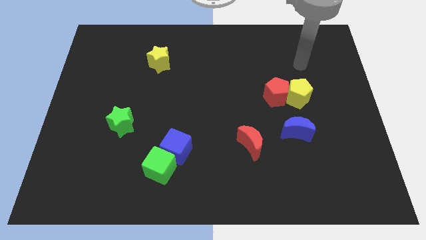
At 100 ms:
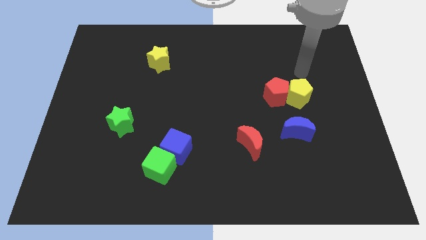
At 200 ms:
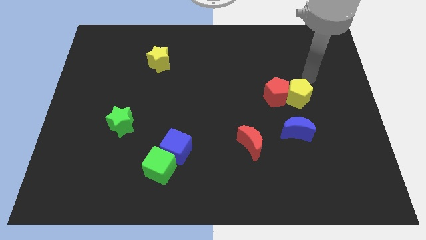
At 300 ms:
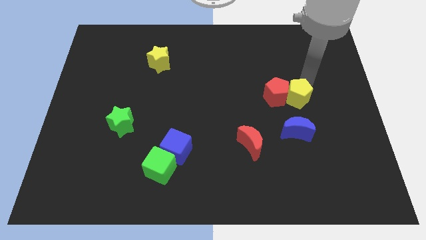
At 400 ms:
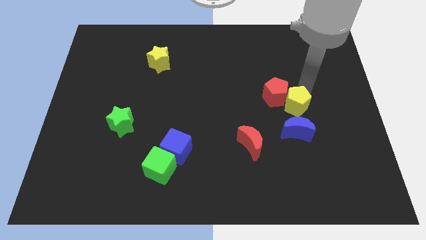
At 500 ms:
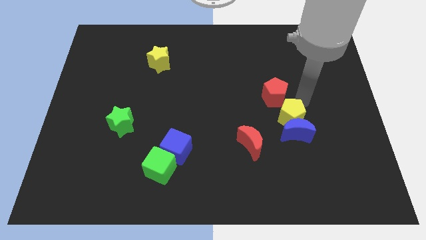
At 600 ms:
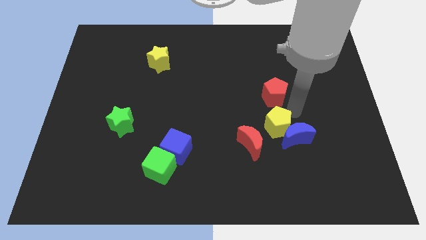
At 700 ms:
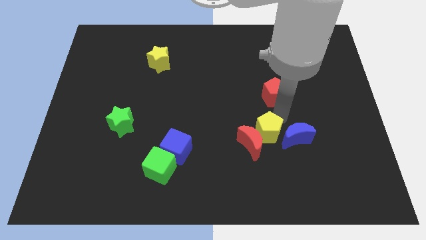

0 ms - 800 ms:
pull the red pentagon apart from the yellow pentagon

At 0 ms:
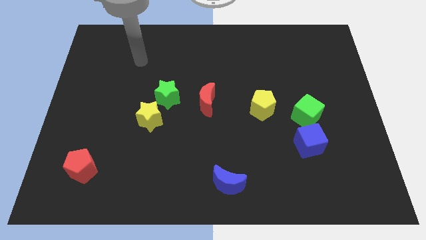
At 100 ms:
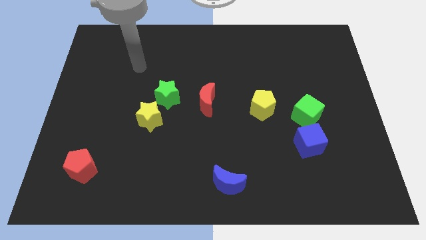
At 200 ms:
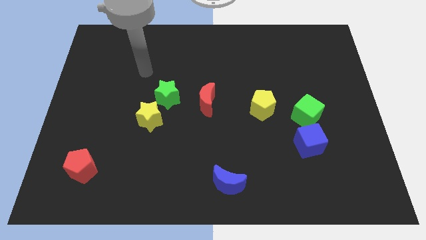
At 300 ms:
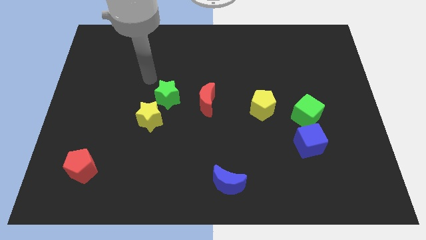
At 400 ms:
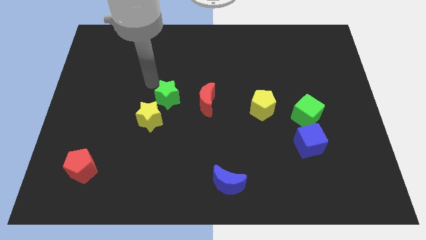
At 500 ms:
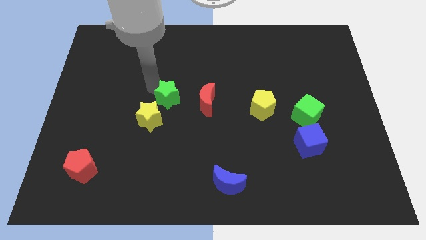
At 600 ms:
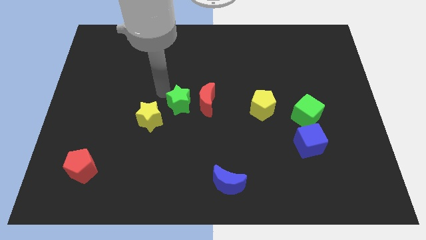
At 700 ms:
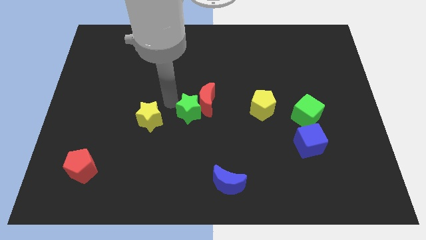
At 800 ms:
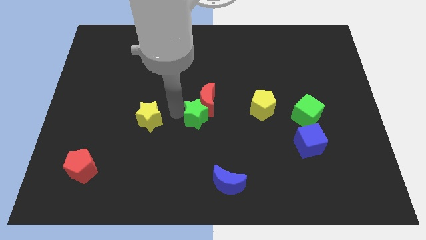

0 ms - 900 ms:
move the yellow star away from the green star

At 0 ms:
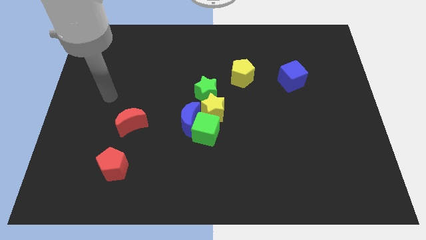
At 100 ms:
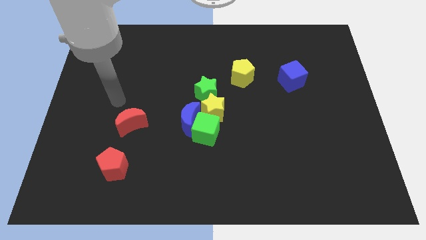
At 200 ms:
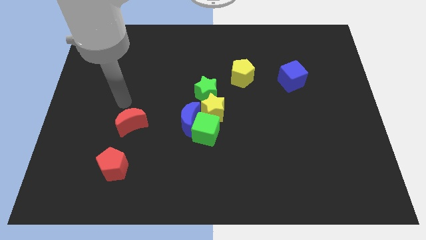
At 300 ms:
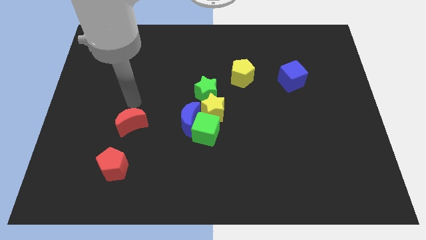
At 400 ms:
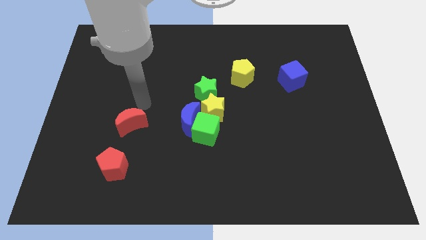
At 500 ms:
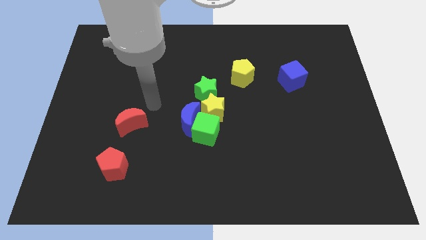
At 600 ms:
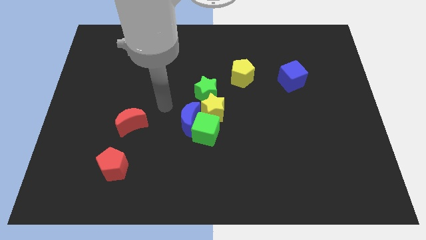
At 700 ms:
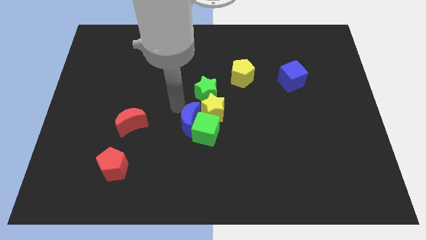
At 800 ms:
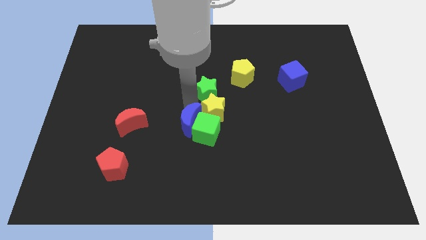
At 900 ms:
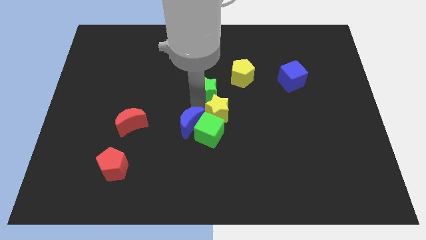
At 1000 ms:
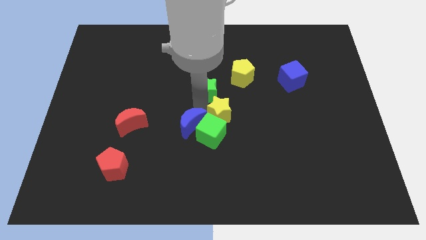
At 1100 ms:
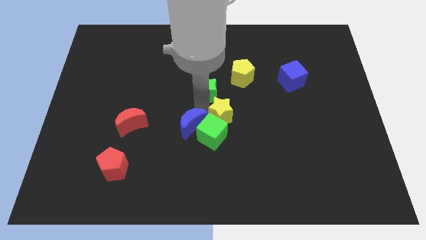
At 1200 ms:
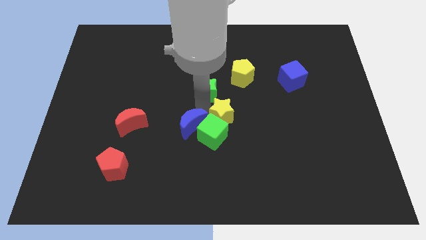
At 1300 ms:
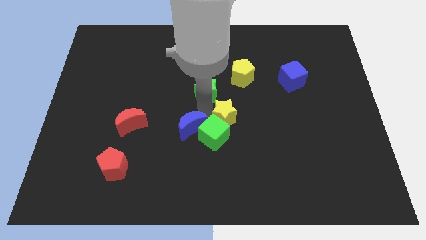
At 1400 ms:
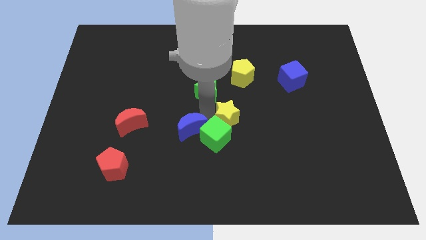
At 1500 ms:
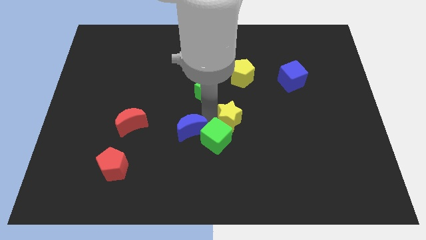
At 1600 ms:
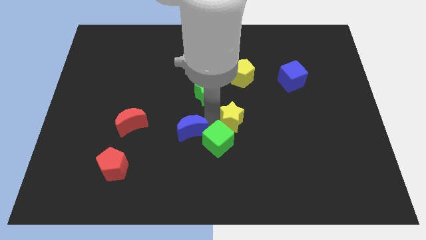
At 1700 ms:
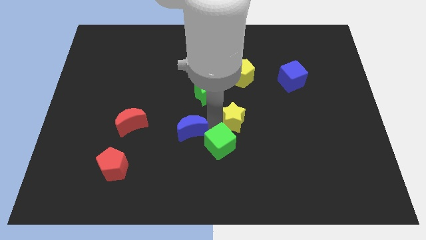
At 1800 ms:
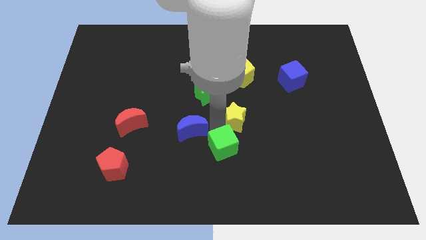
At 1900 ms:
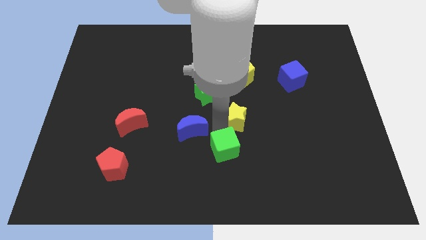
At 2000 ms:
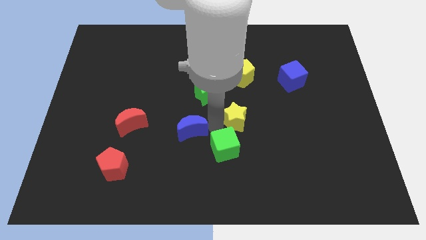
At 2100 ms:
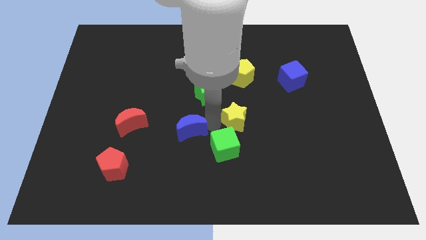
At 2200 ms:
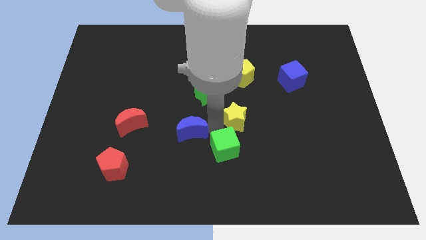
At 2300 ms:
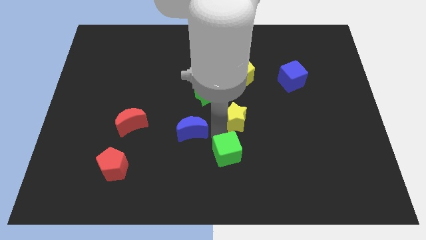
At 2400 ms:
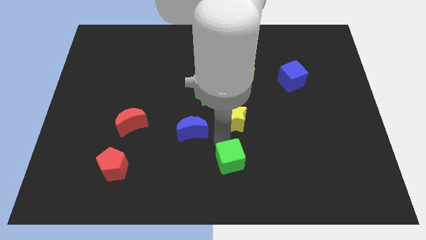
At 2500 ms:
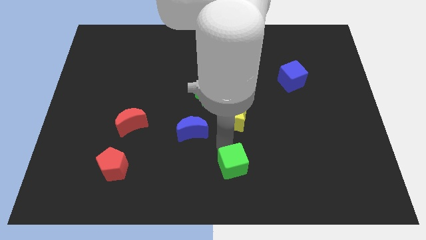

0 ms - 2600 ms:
pull the green cube apart from the blue moon and yellow star

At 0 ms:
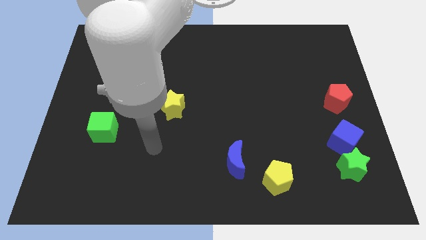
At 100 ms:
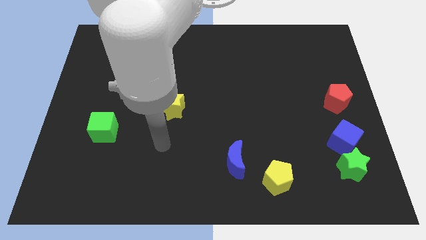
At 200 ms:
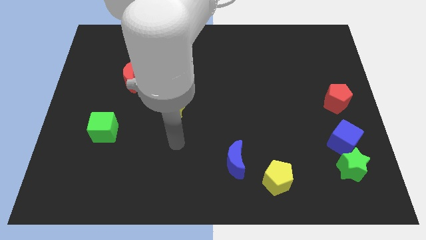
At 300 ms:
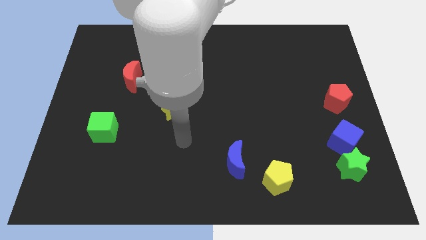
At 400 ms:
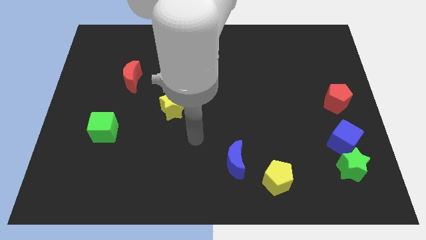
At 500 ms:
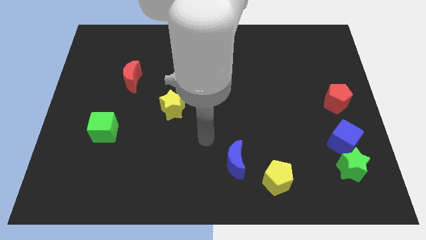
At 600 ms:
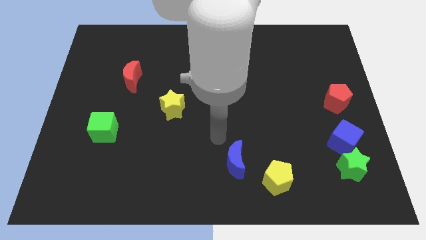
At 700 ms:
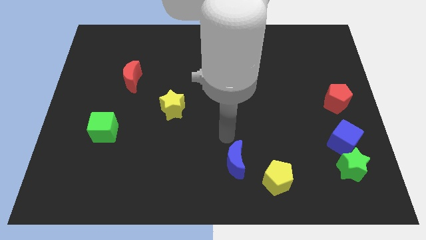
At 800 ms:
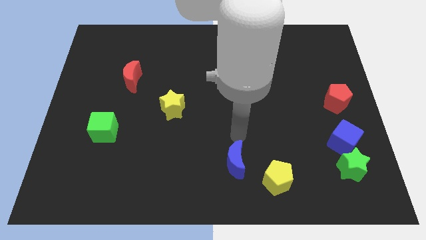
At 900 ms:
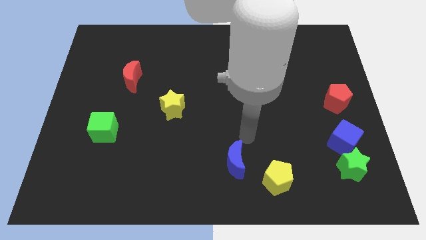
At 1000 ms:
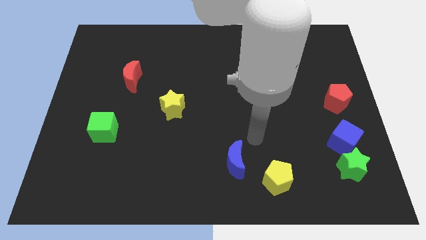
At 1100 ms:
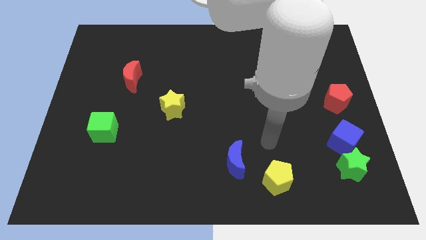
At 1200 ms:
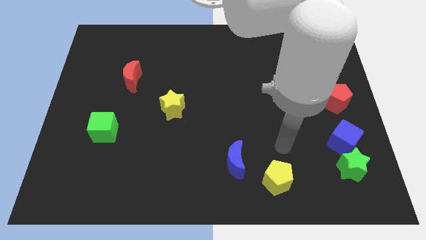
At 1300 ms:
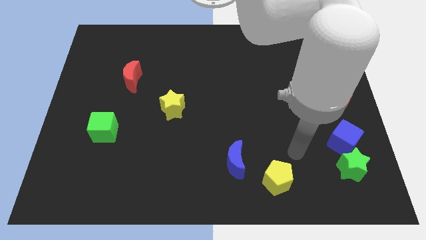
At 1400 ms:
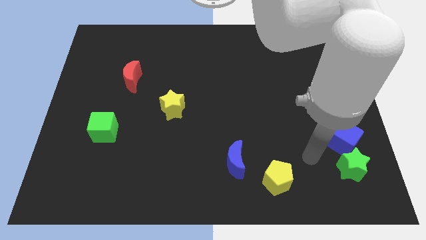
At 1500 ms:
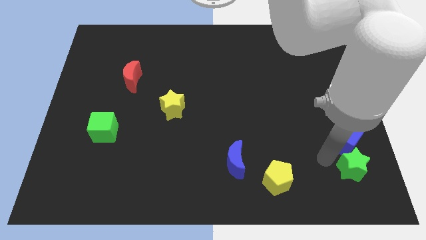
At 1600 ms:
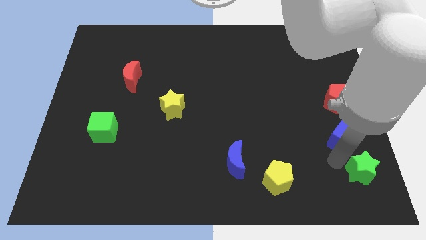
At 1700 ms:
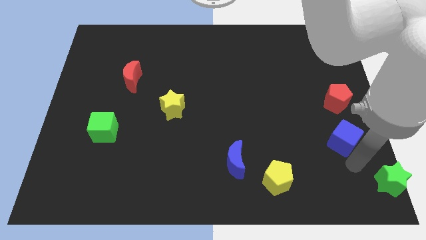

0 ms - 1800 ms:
move the blue cube away from the green star

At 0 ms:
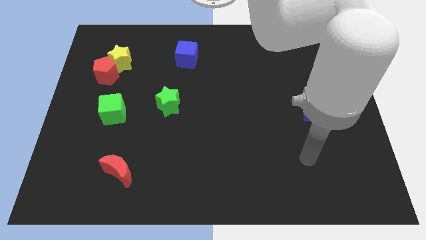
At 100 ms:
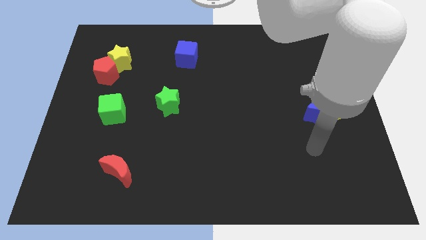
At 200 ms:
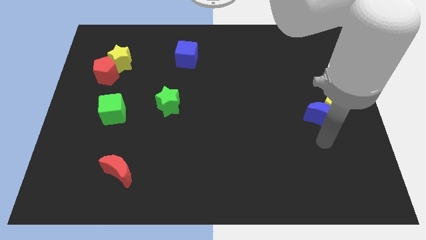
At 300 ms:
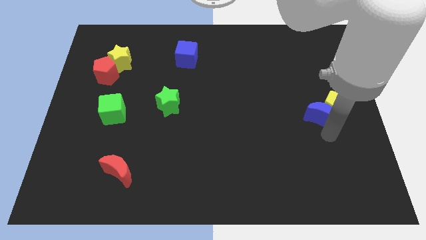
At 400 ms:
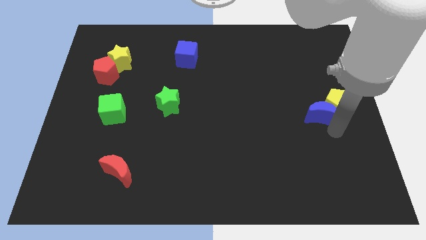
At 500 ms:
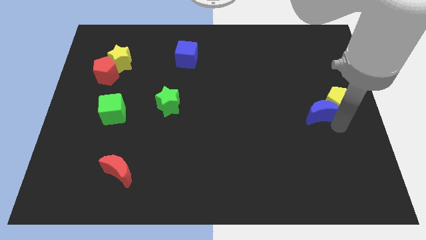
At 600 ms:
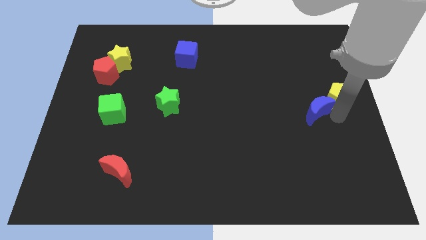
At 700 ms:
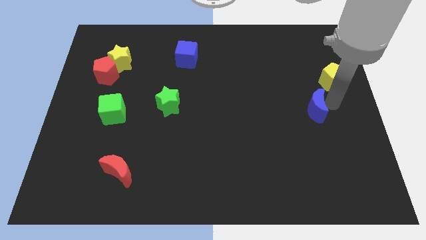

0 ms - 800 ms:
pull the blue moon apart from the yellow pentagon

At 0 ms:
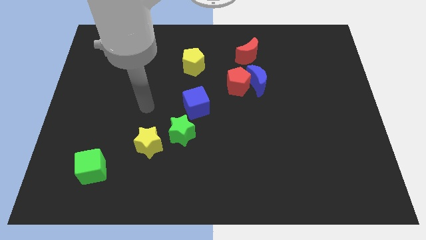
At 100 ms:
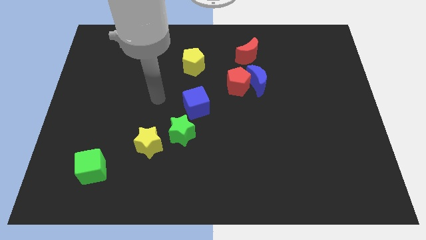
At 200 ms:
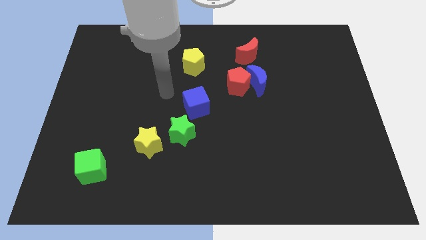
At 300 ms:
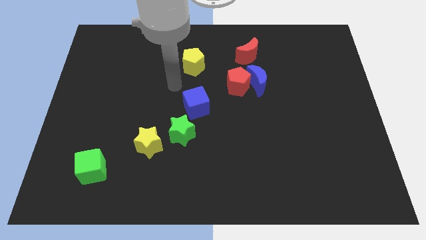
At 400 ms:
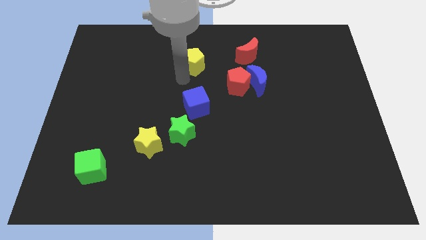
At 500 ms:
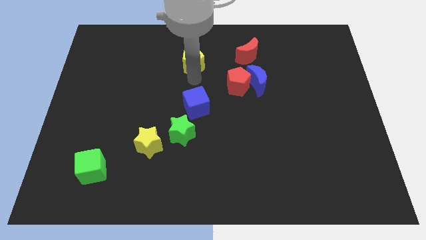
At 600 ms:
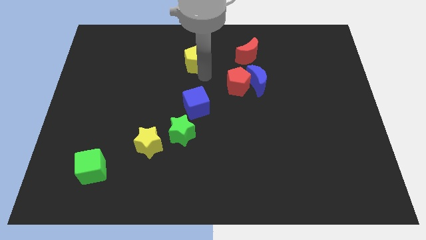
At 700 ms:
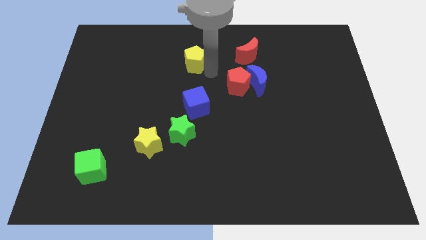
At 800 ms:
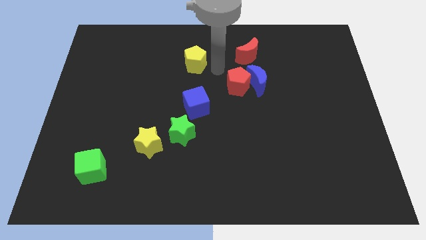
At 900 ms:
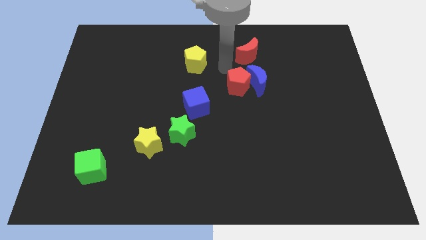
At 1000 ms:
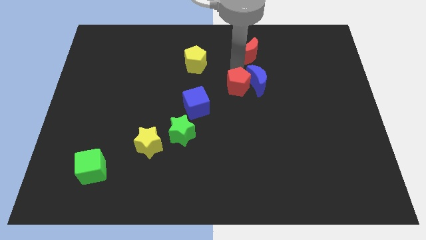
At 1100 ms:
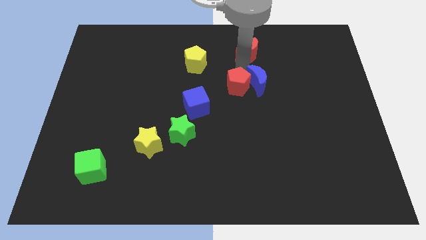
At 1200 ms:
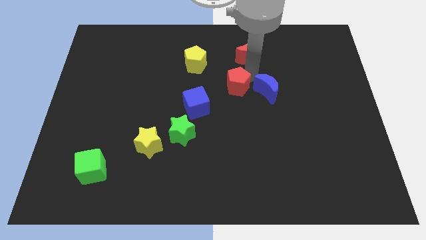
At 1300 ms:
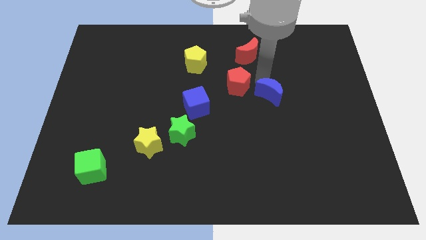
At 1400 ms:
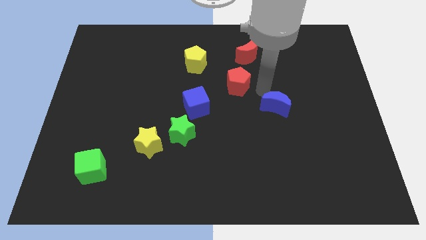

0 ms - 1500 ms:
separate the red pentagon from the blue moon

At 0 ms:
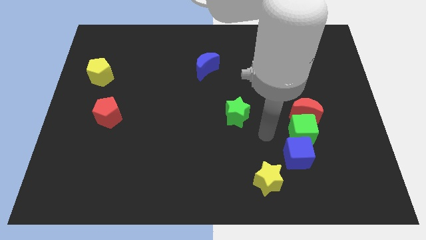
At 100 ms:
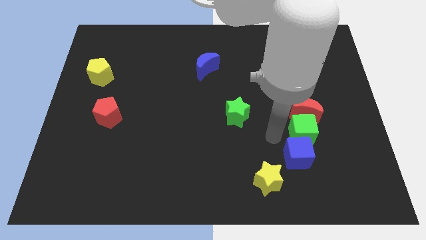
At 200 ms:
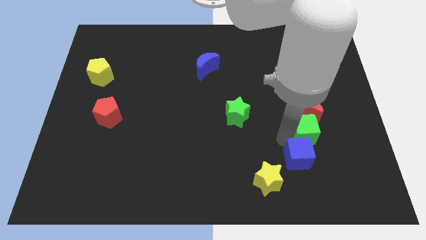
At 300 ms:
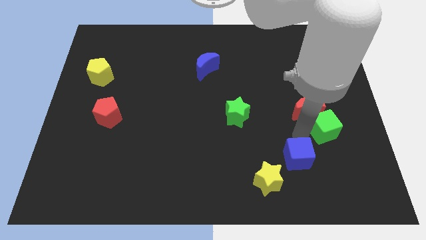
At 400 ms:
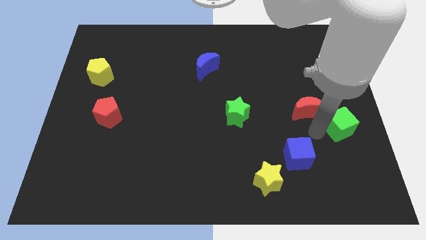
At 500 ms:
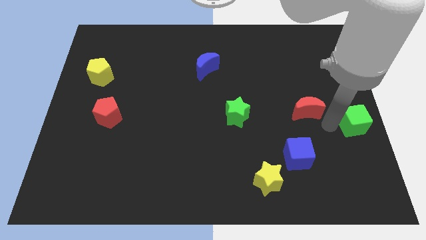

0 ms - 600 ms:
separate the red moon from the green cube

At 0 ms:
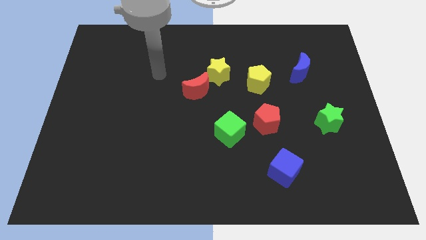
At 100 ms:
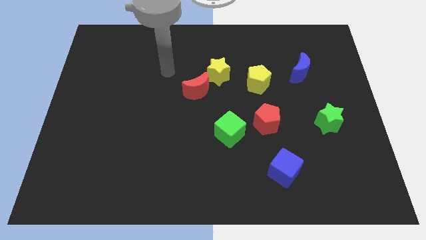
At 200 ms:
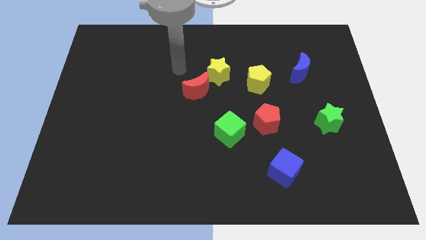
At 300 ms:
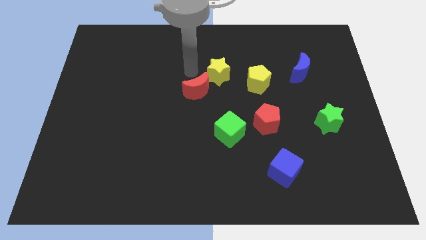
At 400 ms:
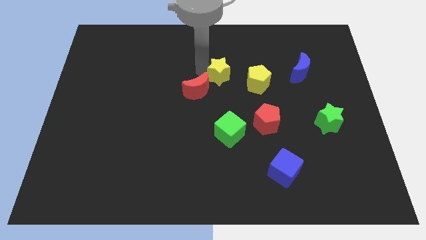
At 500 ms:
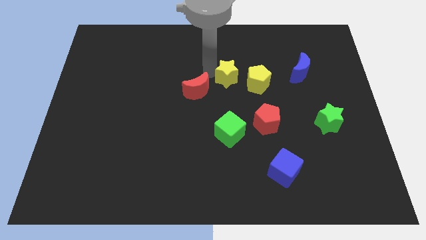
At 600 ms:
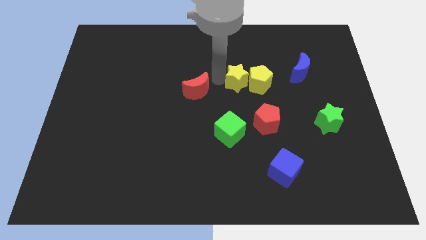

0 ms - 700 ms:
separate the red moon from the yellow star
